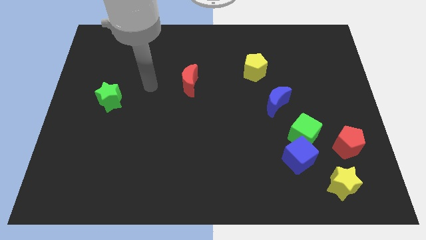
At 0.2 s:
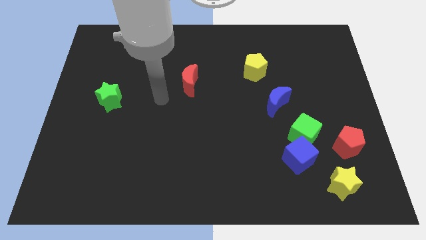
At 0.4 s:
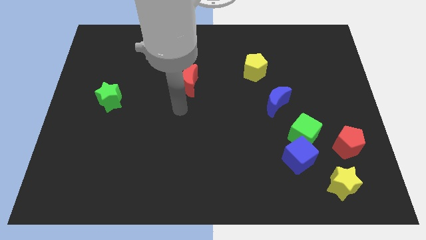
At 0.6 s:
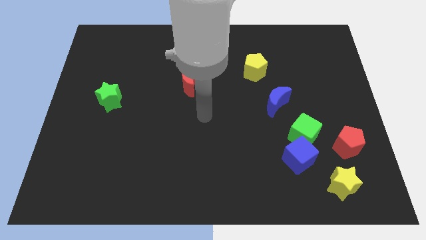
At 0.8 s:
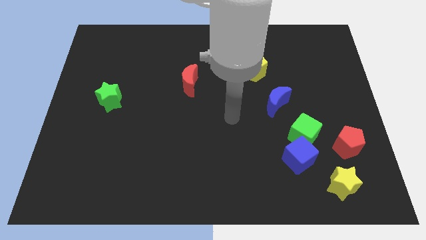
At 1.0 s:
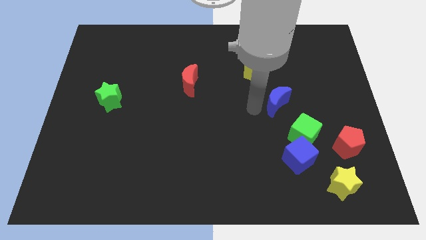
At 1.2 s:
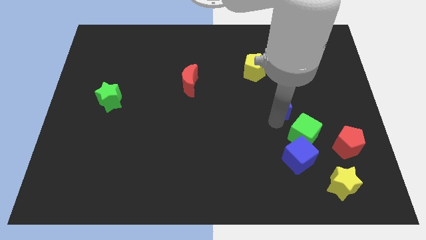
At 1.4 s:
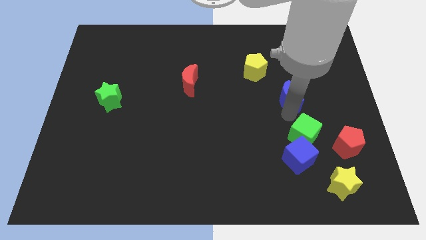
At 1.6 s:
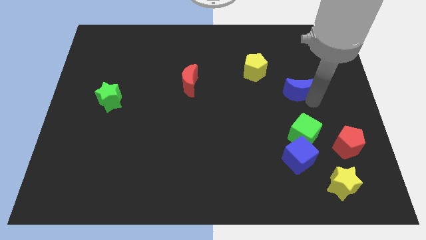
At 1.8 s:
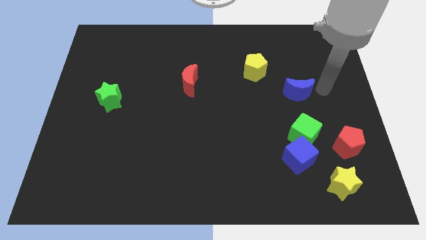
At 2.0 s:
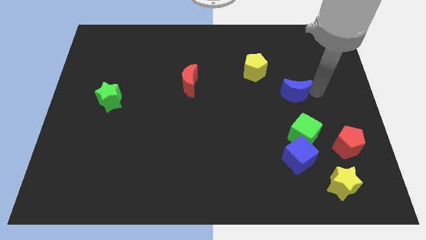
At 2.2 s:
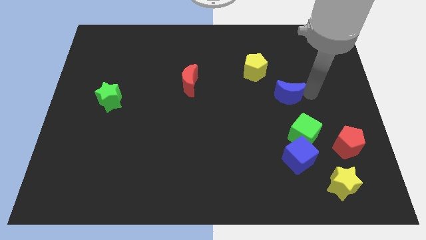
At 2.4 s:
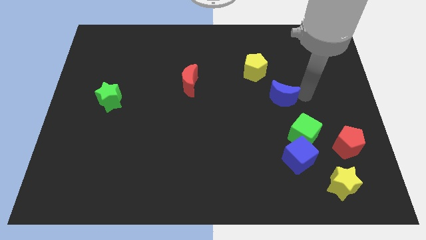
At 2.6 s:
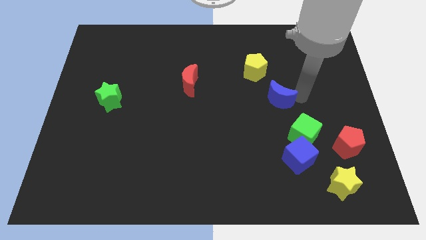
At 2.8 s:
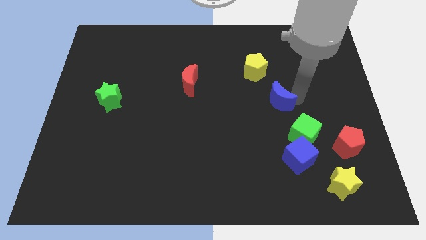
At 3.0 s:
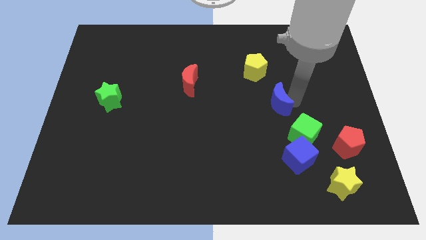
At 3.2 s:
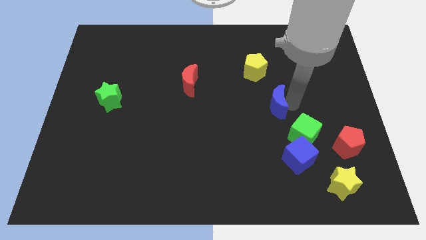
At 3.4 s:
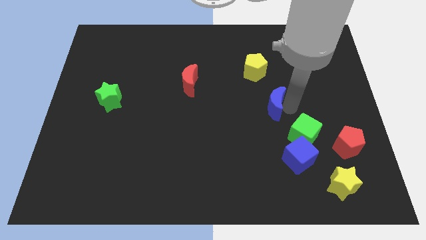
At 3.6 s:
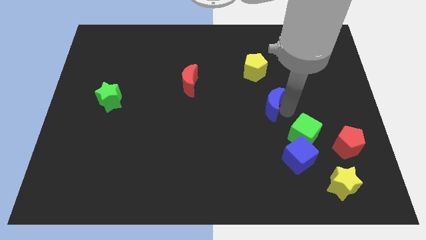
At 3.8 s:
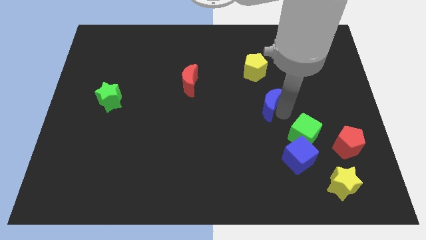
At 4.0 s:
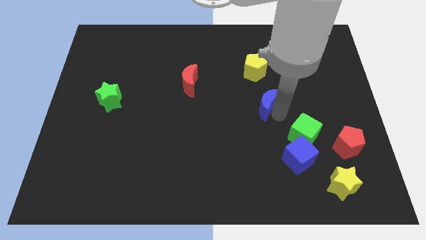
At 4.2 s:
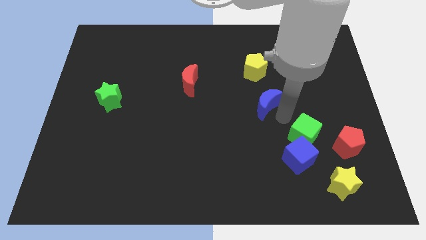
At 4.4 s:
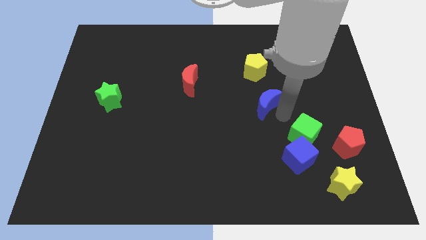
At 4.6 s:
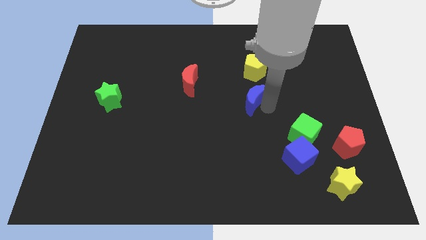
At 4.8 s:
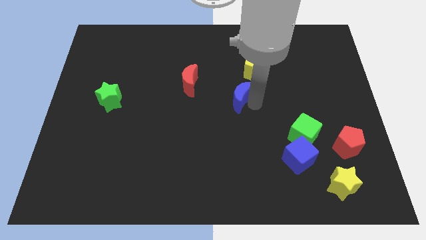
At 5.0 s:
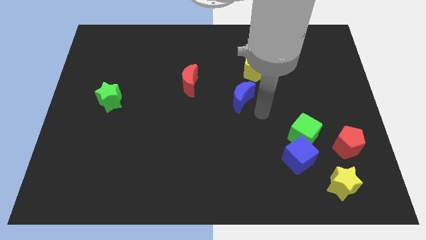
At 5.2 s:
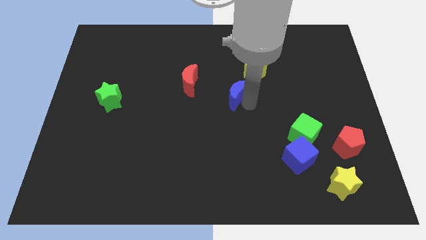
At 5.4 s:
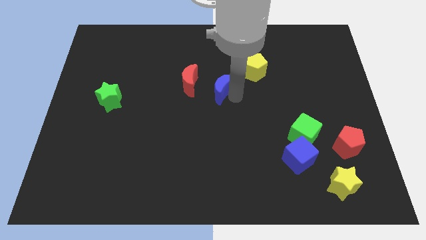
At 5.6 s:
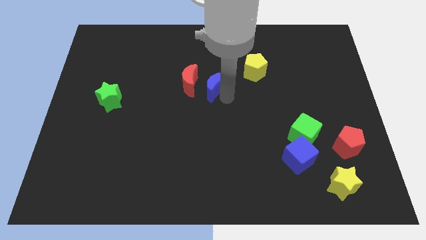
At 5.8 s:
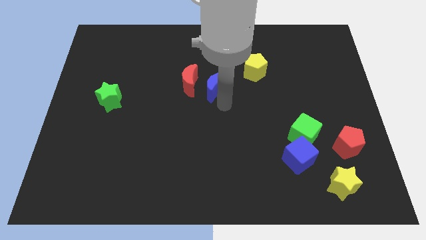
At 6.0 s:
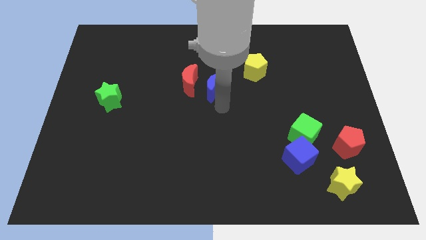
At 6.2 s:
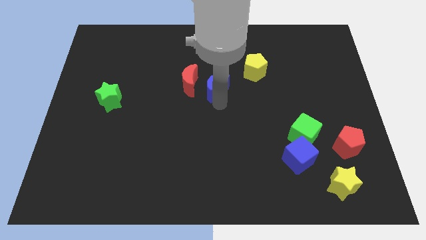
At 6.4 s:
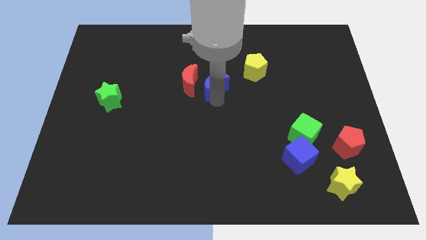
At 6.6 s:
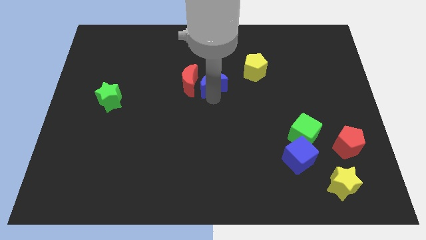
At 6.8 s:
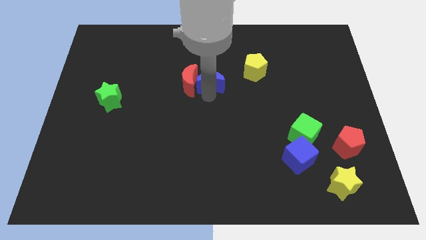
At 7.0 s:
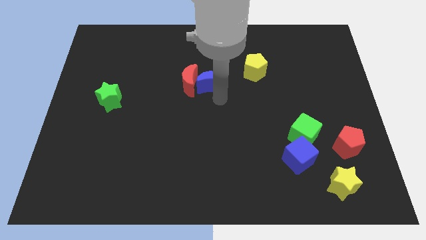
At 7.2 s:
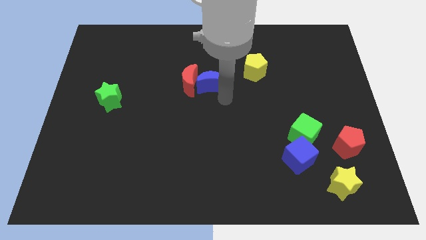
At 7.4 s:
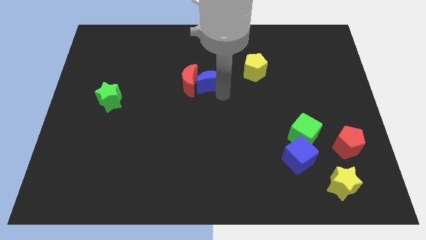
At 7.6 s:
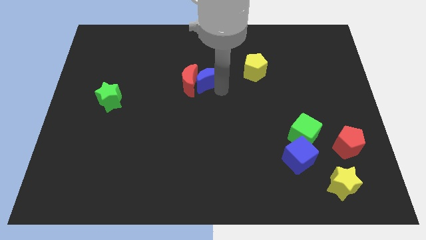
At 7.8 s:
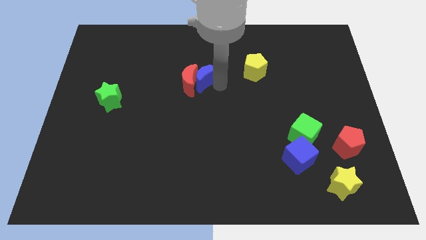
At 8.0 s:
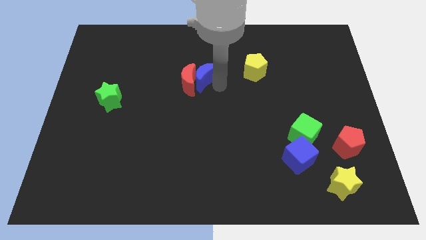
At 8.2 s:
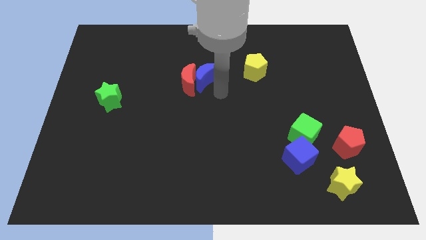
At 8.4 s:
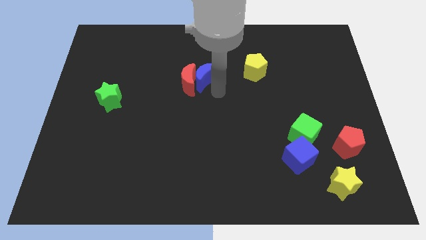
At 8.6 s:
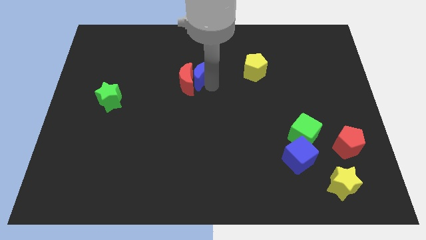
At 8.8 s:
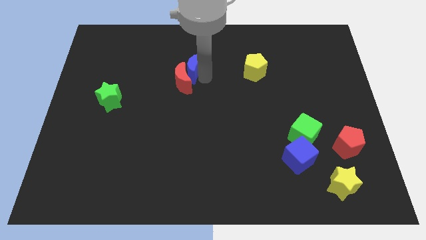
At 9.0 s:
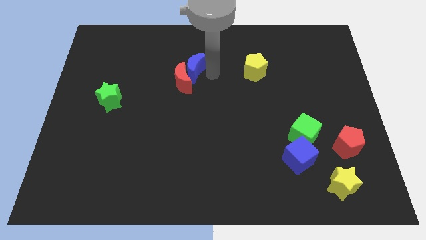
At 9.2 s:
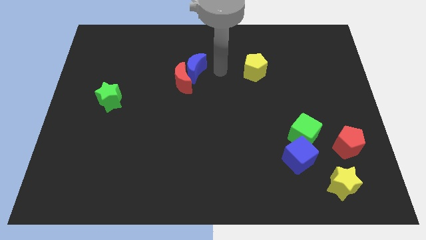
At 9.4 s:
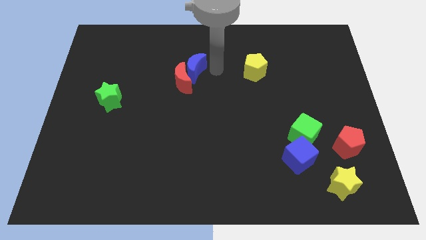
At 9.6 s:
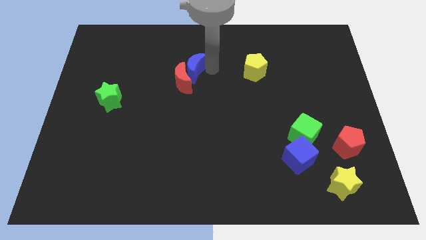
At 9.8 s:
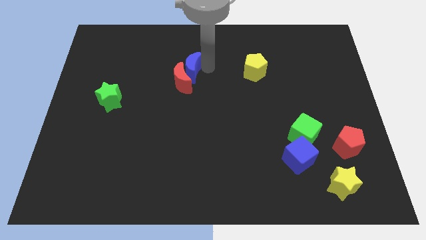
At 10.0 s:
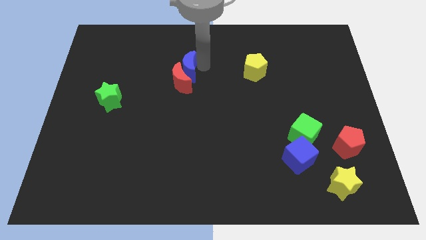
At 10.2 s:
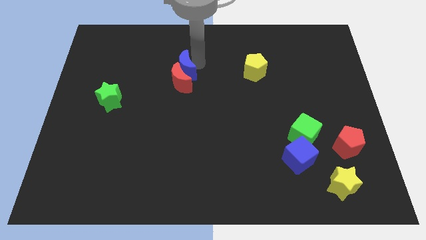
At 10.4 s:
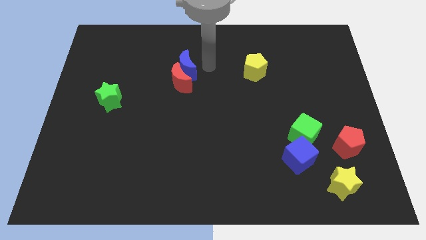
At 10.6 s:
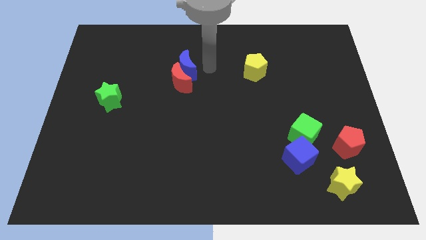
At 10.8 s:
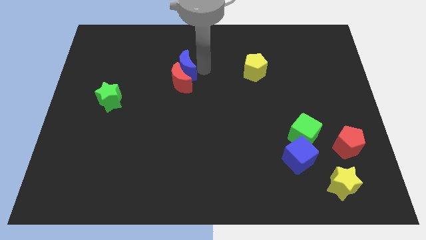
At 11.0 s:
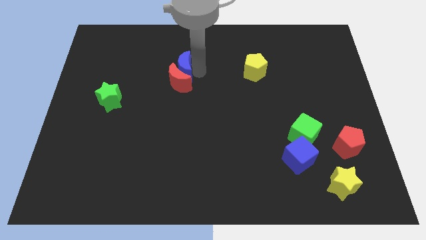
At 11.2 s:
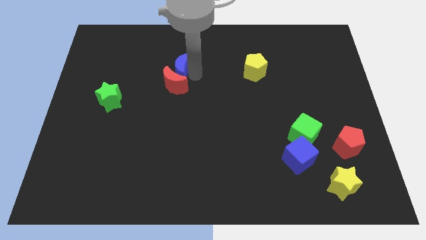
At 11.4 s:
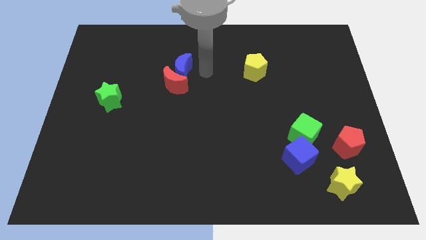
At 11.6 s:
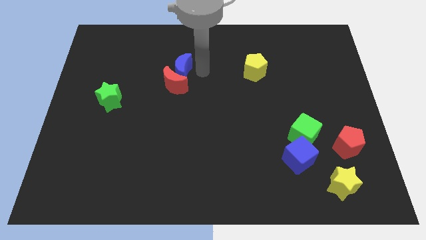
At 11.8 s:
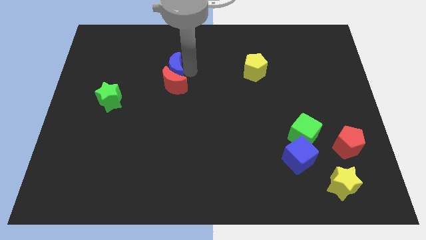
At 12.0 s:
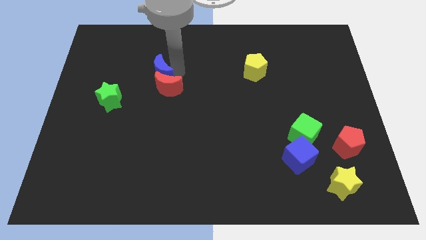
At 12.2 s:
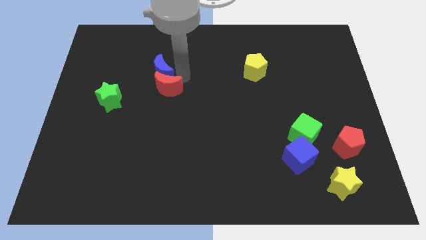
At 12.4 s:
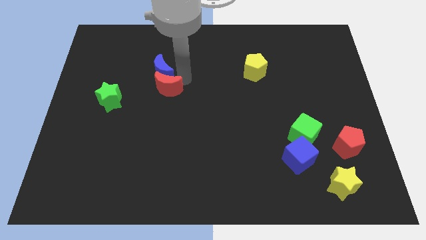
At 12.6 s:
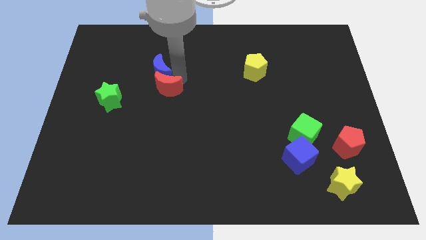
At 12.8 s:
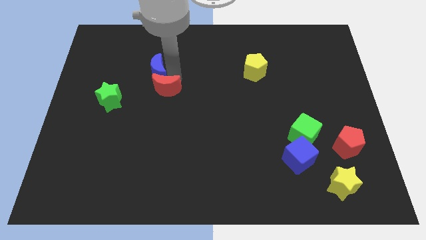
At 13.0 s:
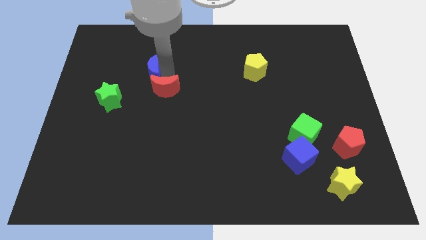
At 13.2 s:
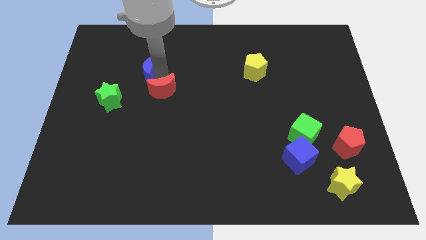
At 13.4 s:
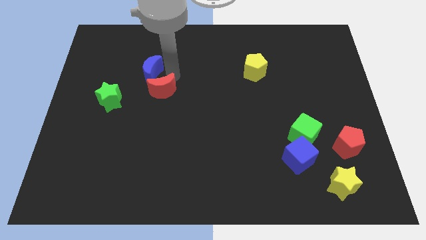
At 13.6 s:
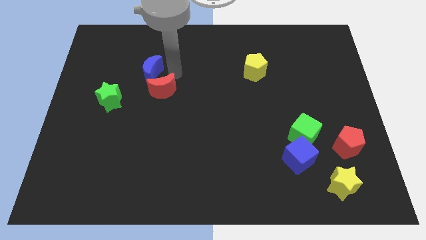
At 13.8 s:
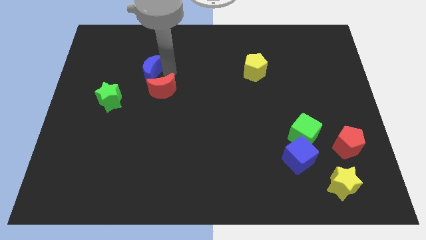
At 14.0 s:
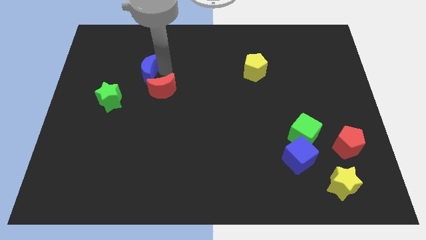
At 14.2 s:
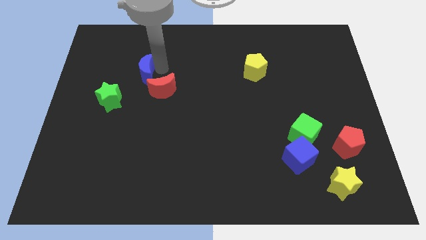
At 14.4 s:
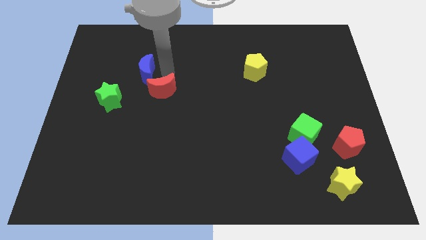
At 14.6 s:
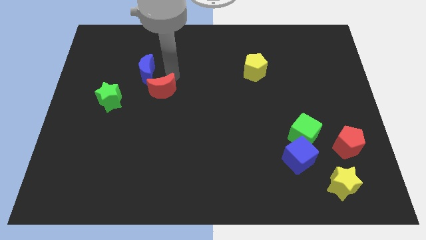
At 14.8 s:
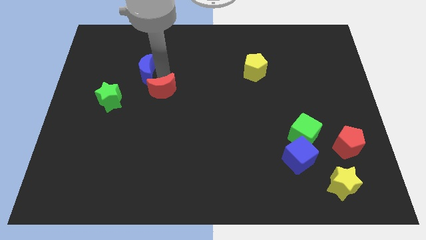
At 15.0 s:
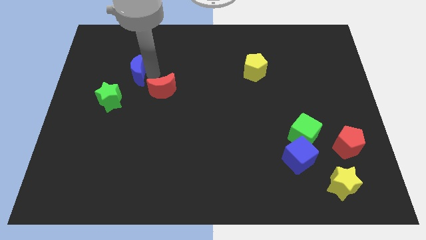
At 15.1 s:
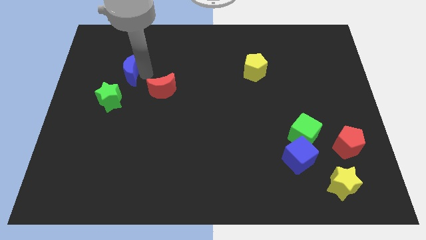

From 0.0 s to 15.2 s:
slide the blue moon above the green star
